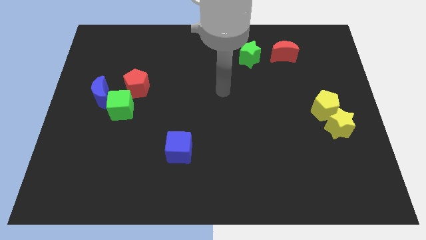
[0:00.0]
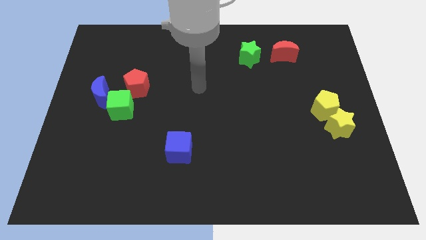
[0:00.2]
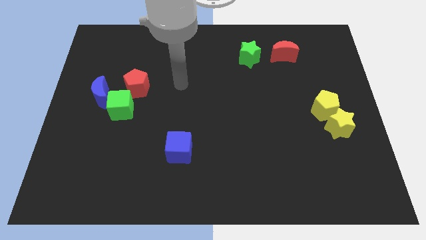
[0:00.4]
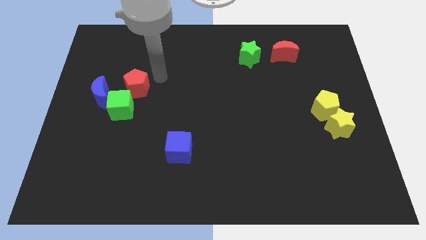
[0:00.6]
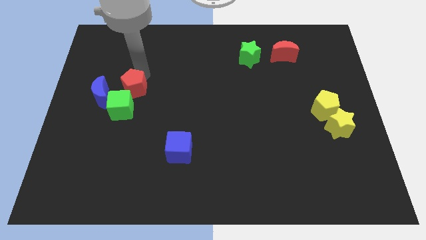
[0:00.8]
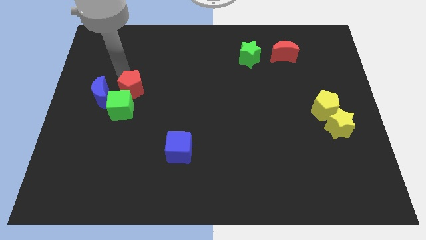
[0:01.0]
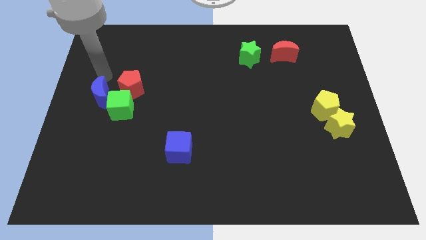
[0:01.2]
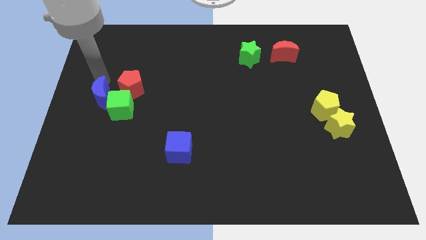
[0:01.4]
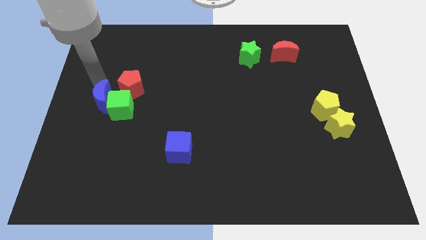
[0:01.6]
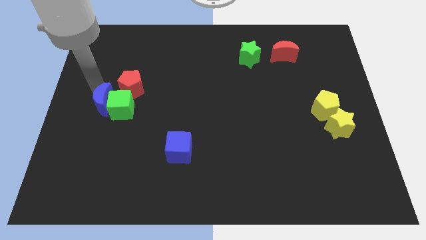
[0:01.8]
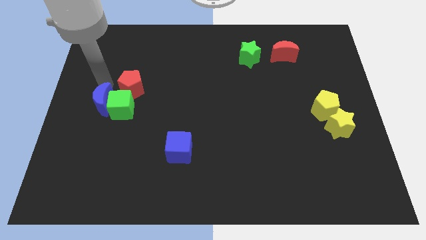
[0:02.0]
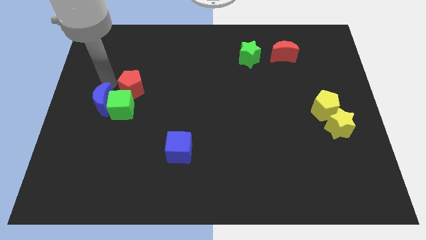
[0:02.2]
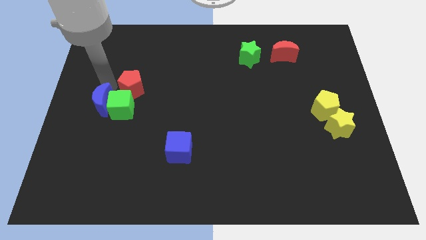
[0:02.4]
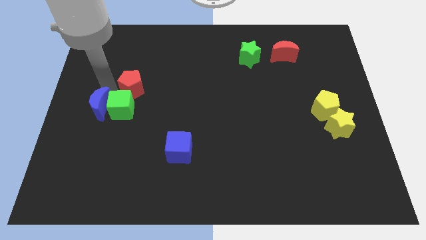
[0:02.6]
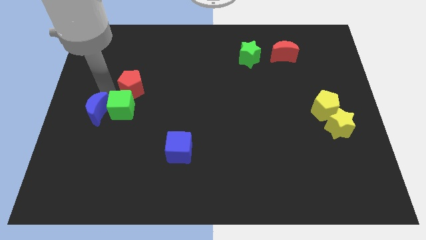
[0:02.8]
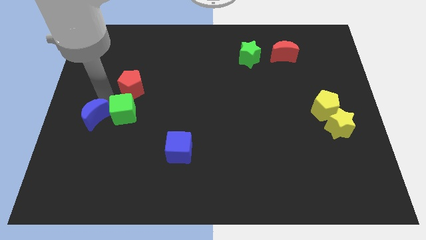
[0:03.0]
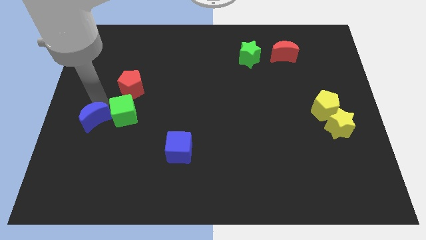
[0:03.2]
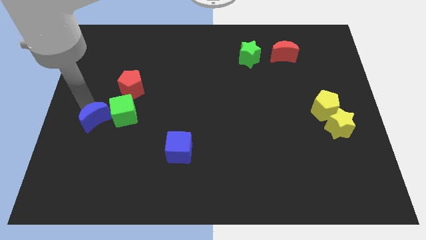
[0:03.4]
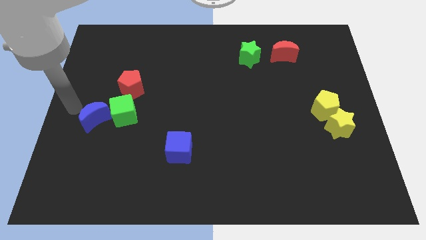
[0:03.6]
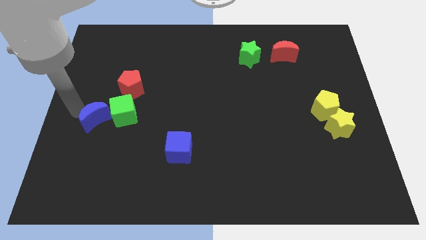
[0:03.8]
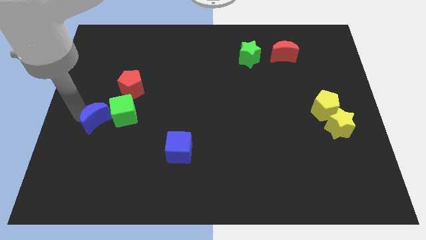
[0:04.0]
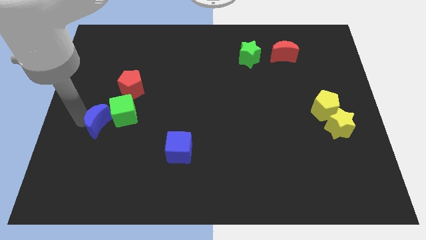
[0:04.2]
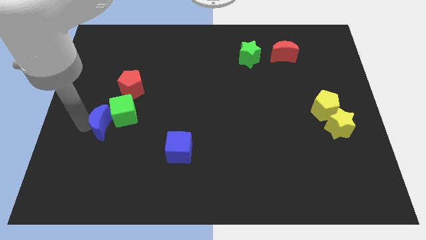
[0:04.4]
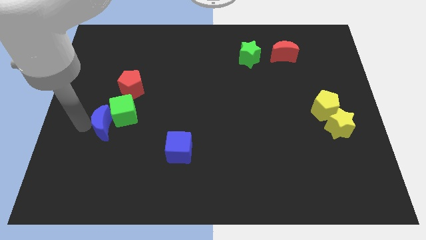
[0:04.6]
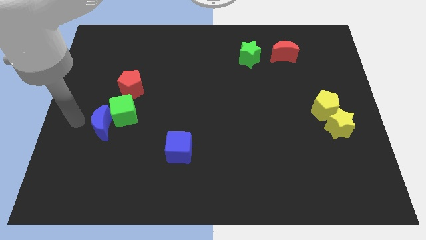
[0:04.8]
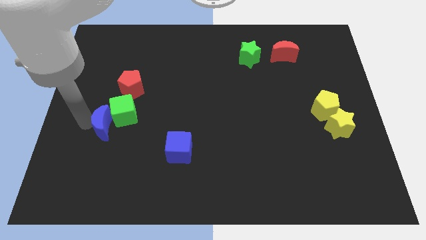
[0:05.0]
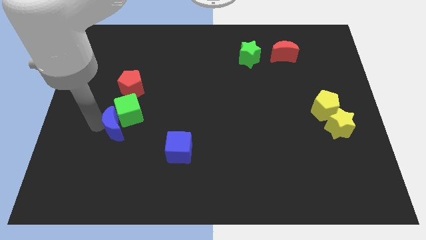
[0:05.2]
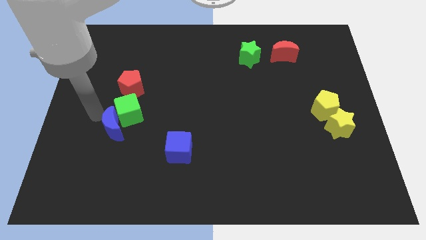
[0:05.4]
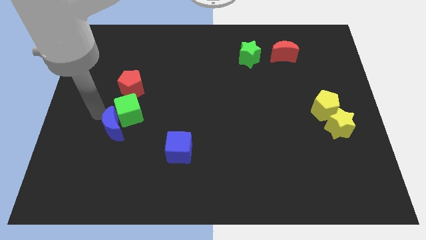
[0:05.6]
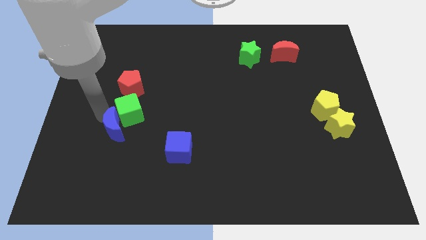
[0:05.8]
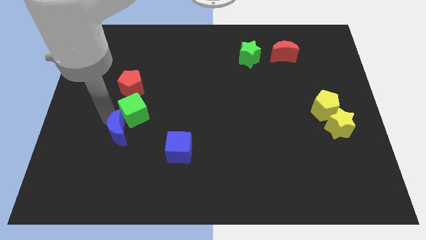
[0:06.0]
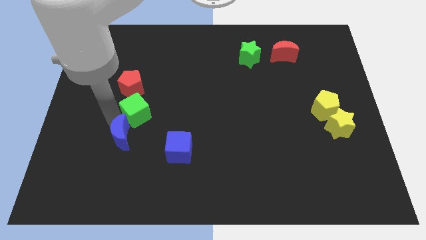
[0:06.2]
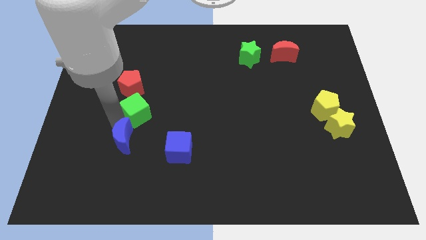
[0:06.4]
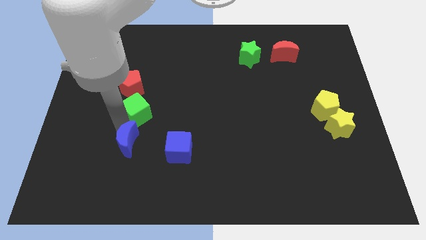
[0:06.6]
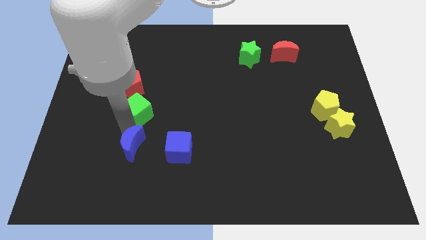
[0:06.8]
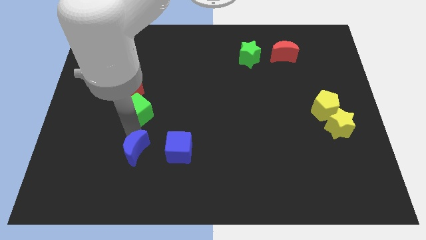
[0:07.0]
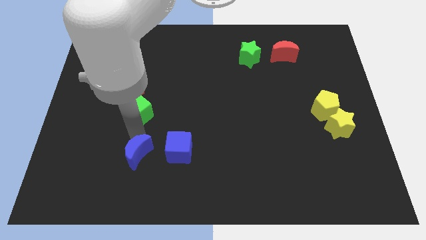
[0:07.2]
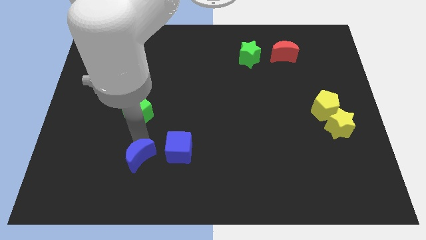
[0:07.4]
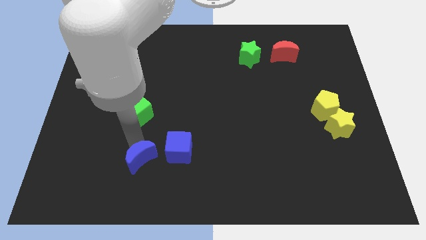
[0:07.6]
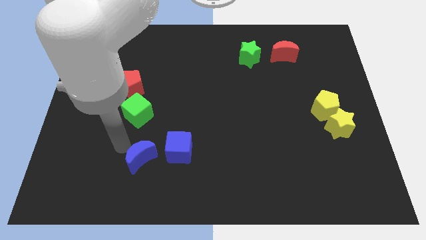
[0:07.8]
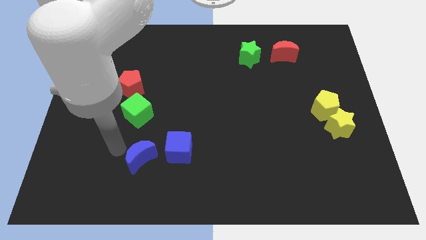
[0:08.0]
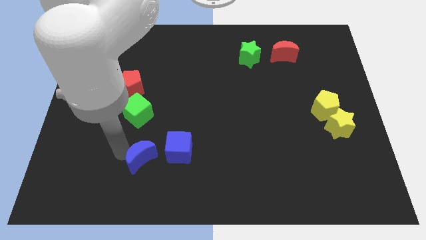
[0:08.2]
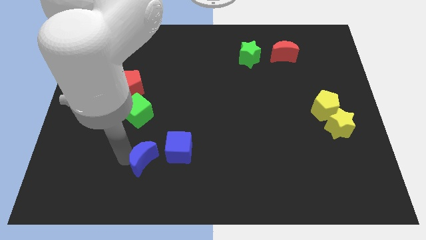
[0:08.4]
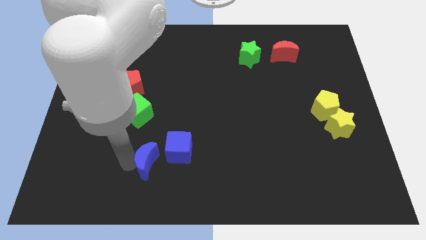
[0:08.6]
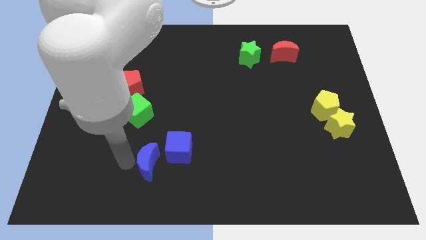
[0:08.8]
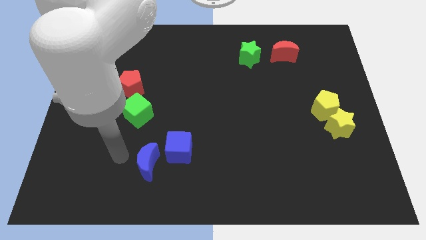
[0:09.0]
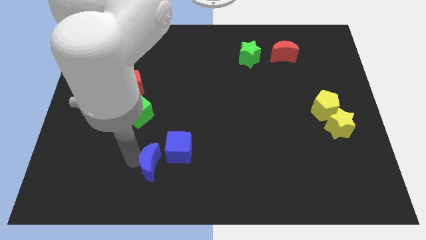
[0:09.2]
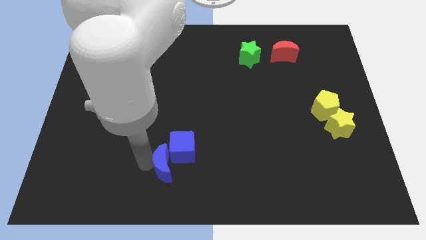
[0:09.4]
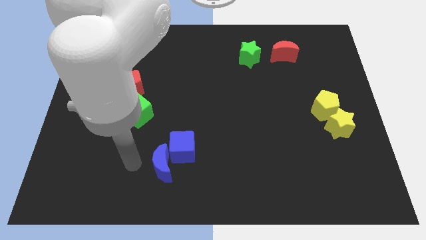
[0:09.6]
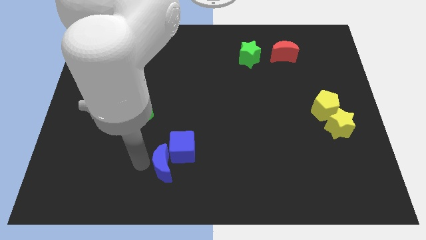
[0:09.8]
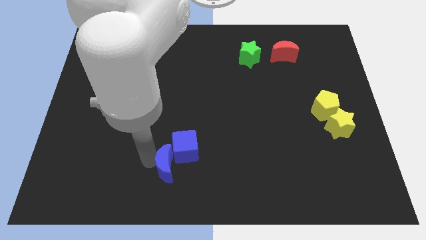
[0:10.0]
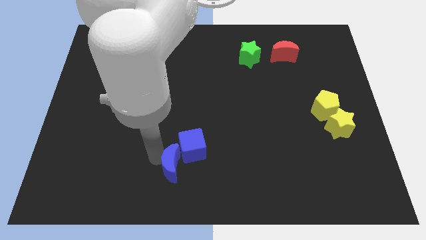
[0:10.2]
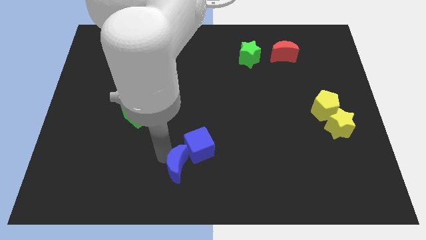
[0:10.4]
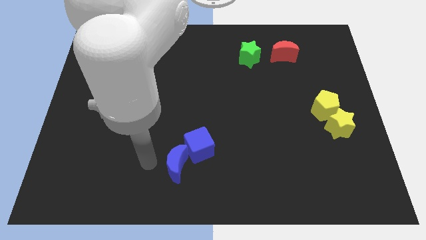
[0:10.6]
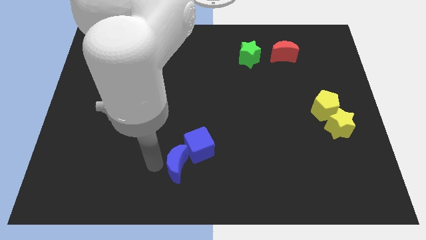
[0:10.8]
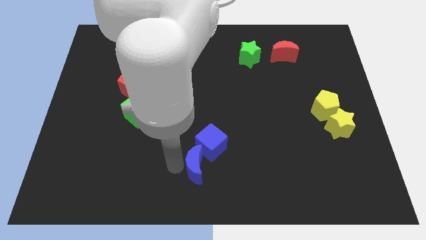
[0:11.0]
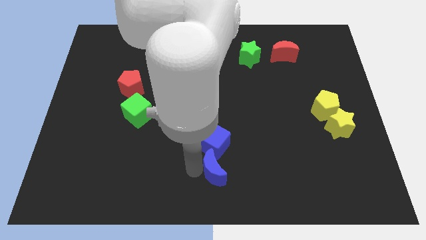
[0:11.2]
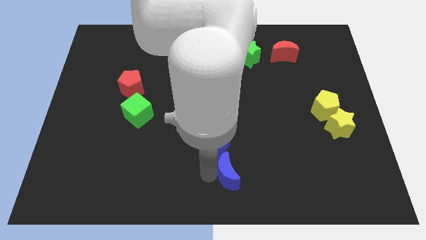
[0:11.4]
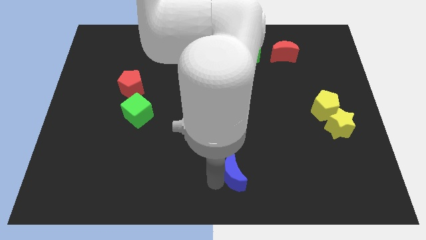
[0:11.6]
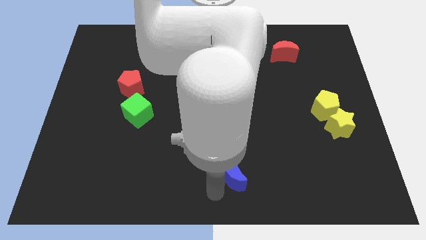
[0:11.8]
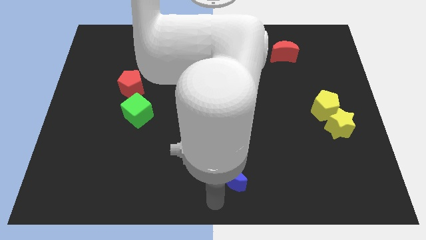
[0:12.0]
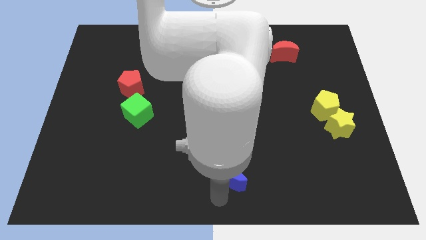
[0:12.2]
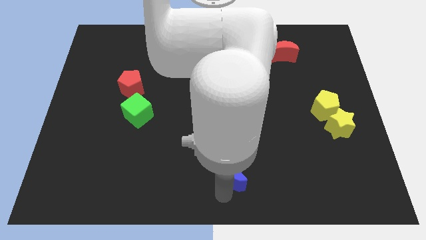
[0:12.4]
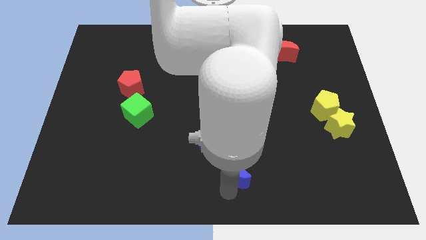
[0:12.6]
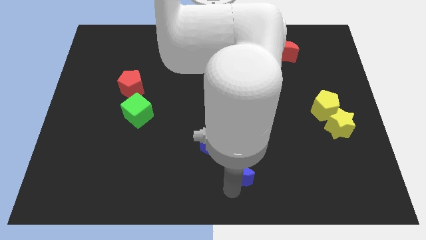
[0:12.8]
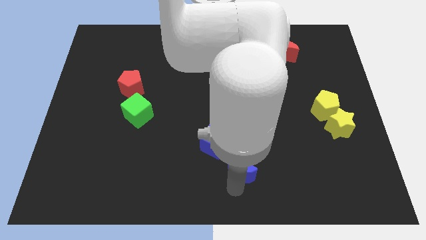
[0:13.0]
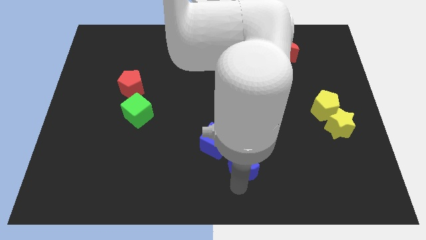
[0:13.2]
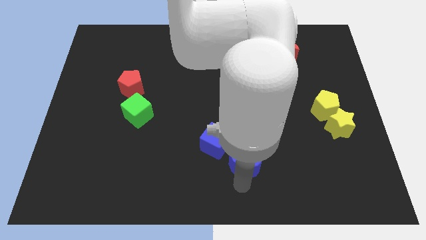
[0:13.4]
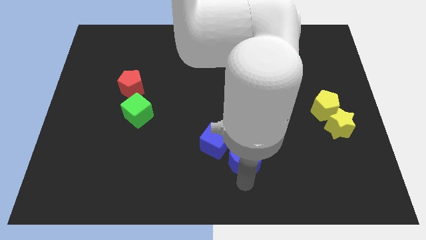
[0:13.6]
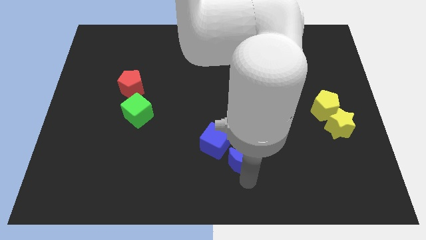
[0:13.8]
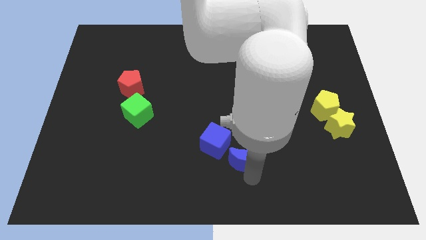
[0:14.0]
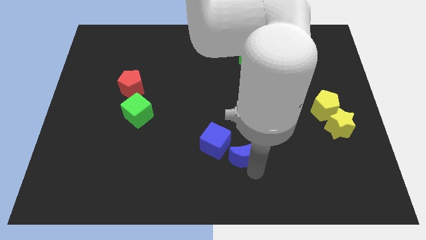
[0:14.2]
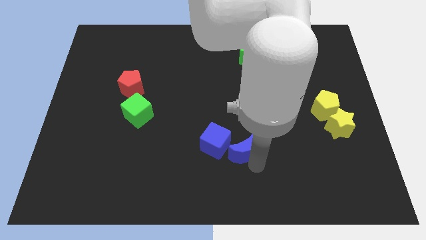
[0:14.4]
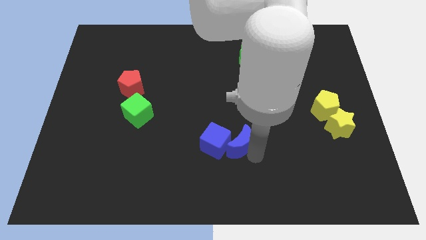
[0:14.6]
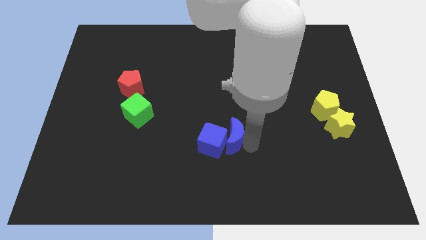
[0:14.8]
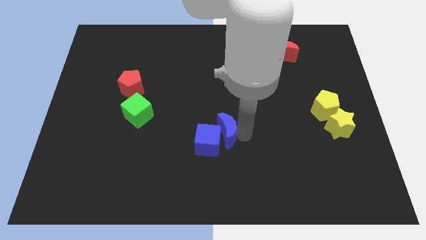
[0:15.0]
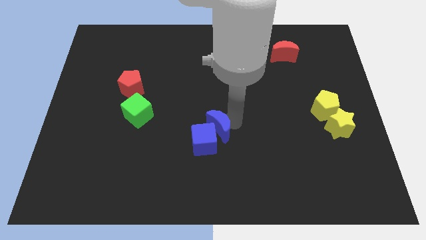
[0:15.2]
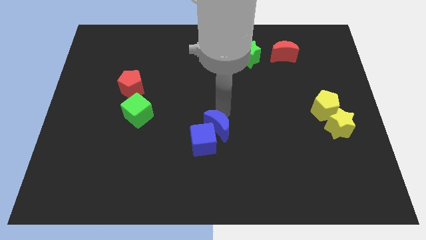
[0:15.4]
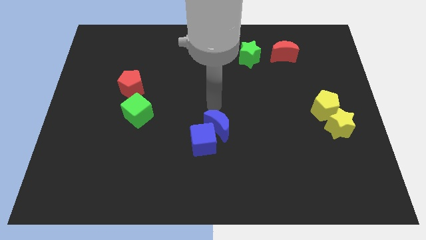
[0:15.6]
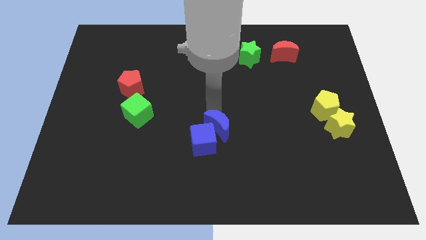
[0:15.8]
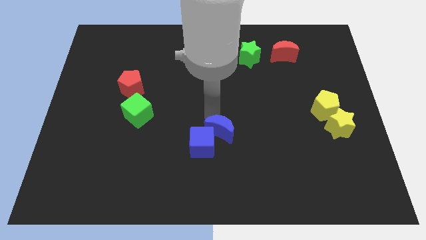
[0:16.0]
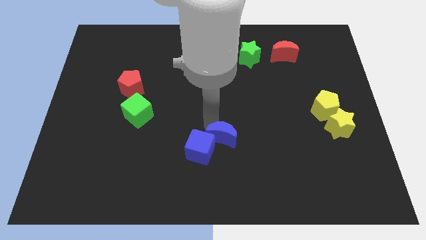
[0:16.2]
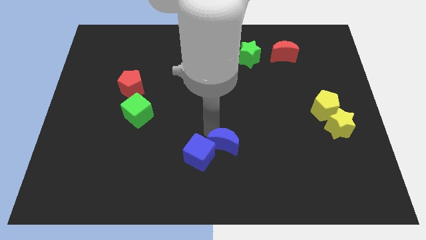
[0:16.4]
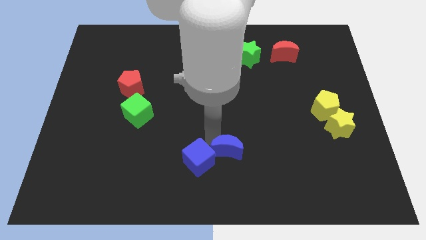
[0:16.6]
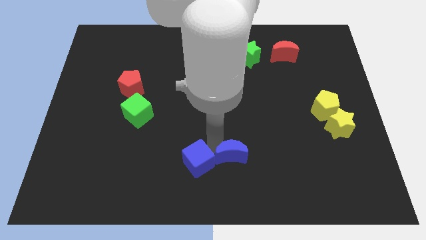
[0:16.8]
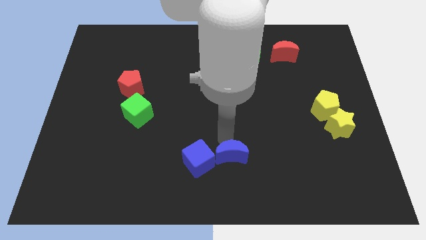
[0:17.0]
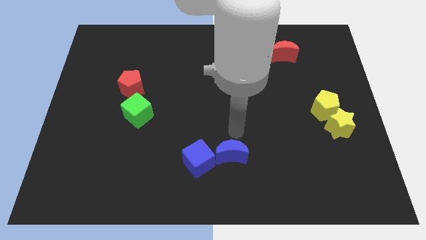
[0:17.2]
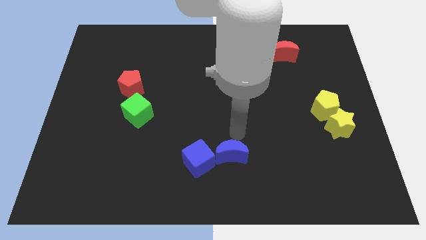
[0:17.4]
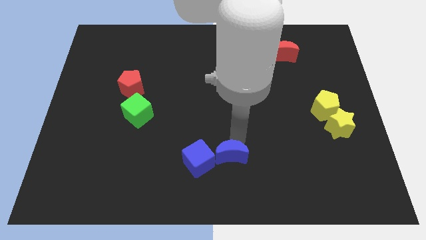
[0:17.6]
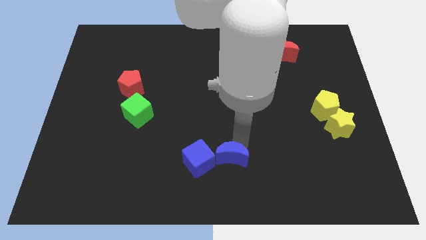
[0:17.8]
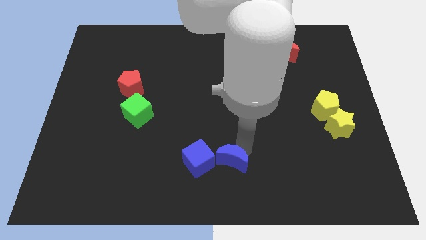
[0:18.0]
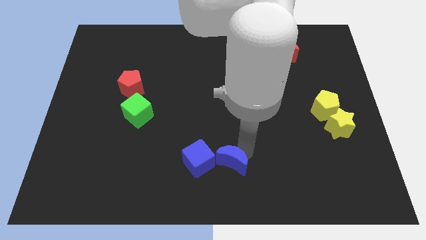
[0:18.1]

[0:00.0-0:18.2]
put the blue moon to the bottom right of the blue cube
